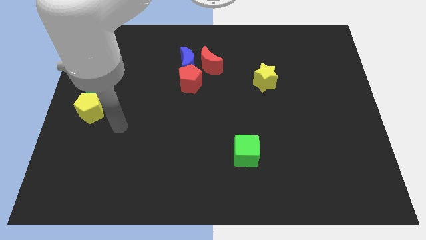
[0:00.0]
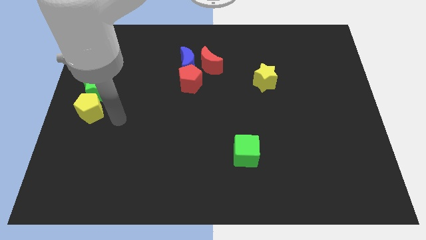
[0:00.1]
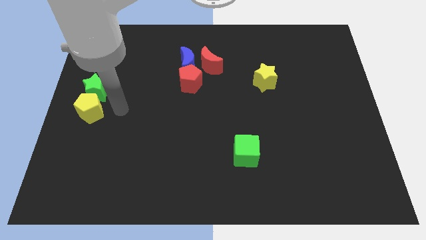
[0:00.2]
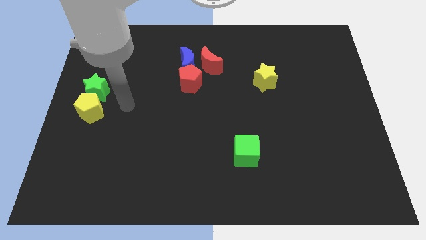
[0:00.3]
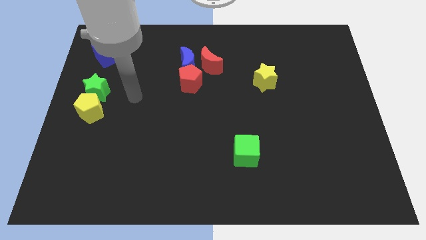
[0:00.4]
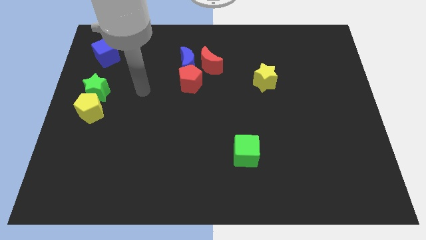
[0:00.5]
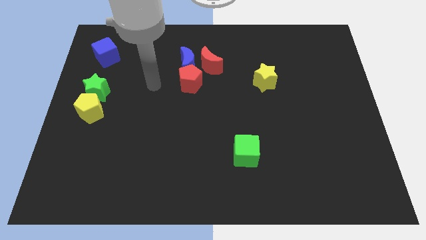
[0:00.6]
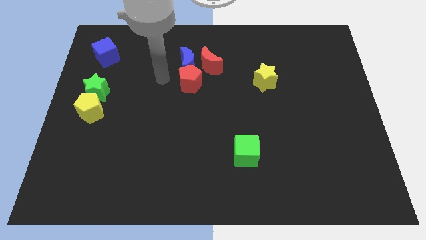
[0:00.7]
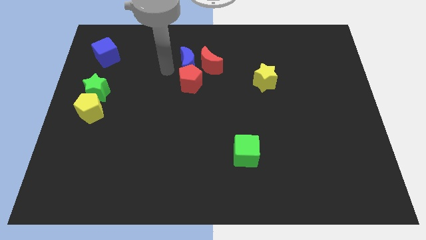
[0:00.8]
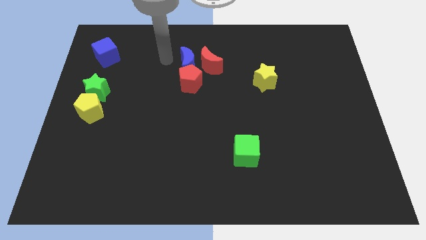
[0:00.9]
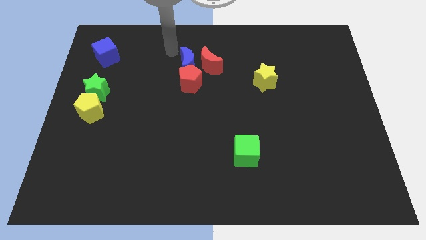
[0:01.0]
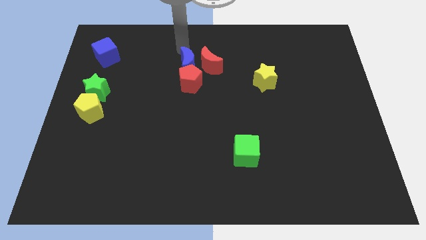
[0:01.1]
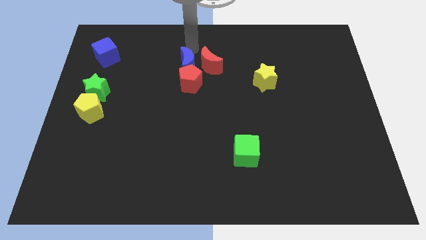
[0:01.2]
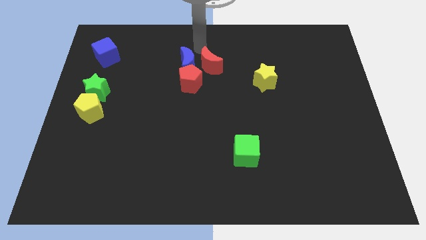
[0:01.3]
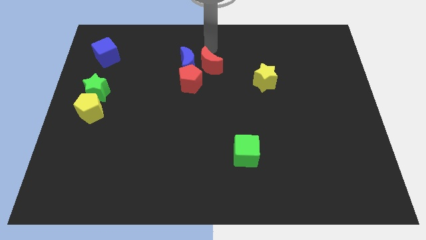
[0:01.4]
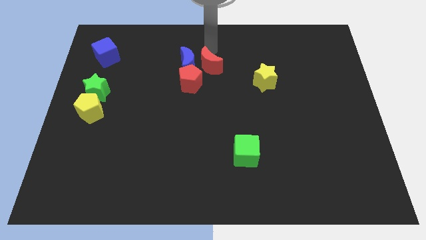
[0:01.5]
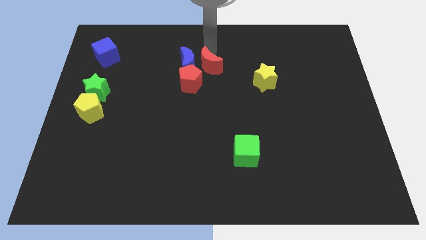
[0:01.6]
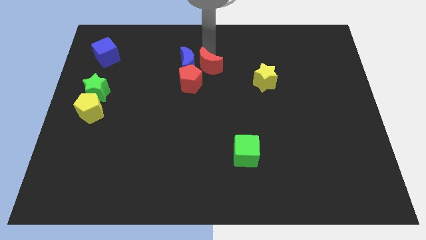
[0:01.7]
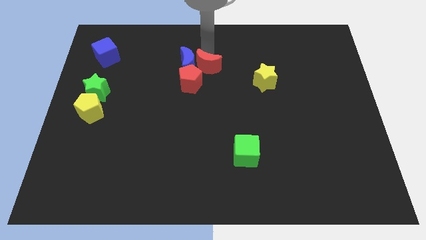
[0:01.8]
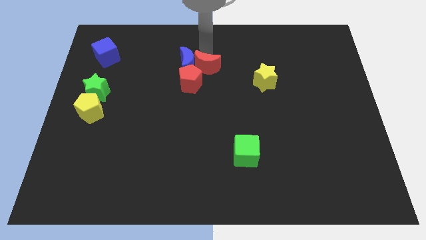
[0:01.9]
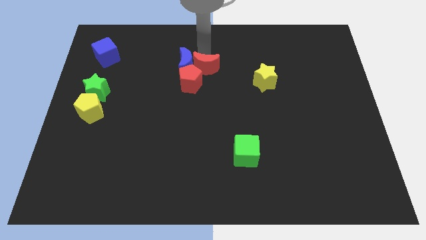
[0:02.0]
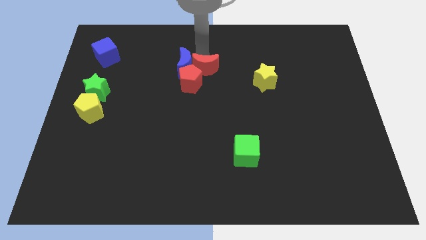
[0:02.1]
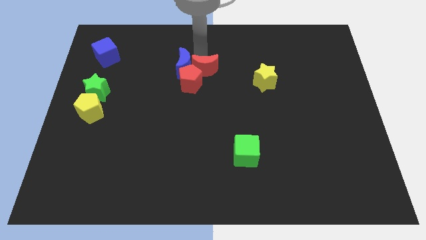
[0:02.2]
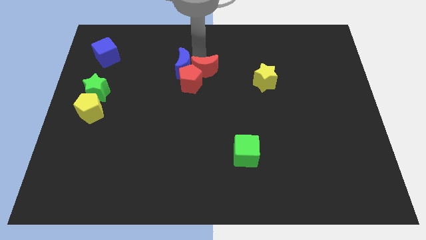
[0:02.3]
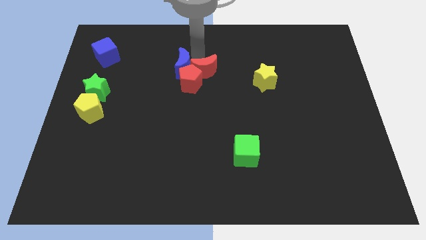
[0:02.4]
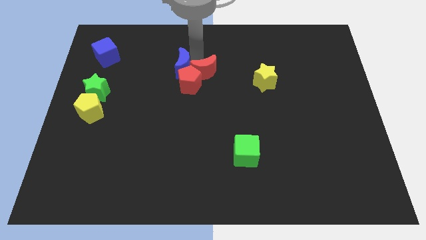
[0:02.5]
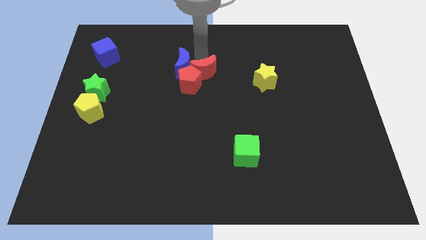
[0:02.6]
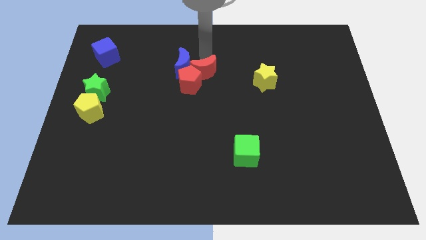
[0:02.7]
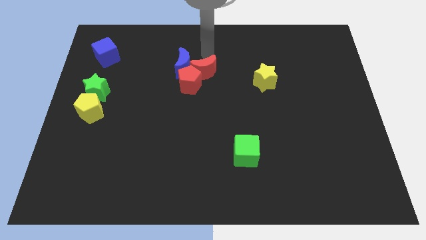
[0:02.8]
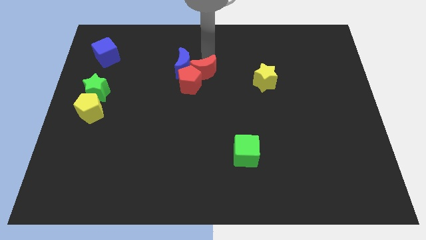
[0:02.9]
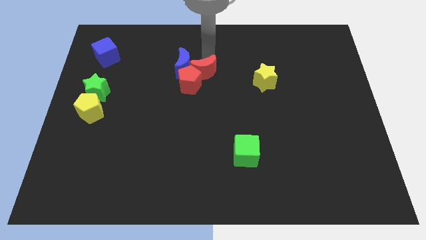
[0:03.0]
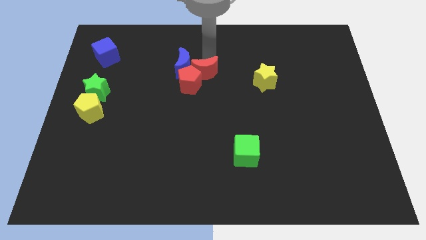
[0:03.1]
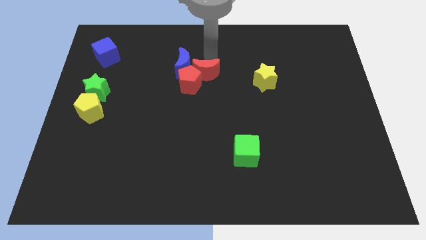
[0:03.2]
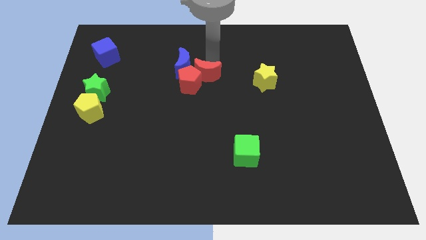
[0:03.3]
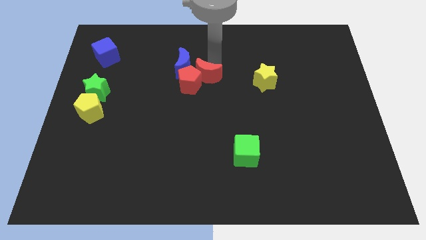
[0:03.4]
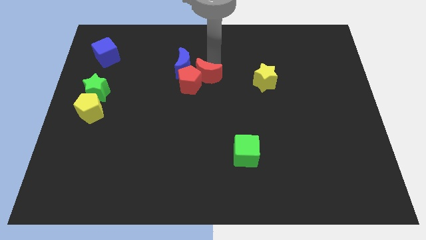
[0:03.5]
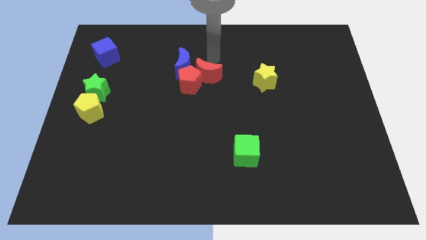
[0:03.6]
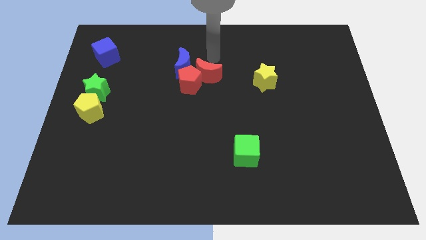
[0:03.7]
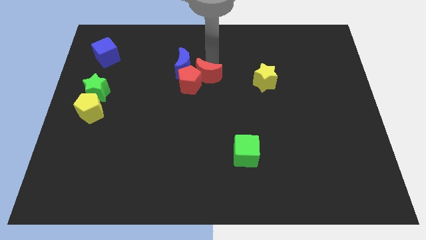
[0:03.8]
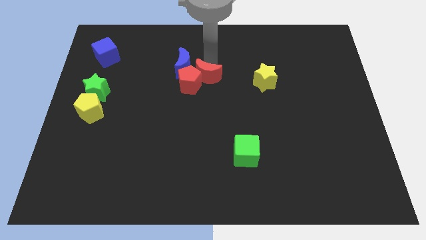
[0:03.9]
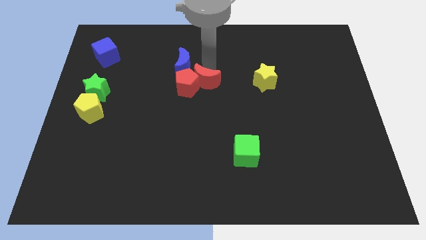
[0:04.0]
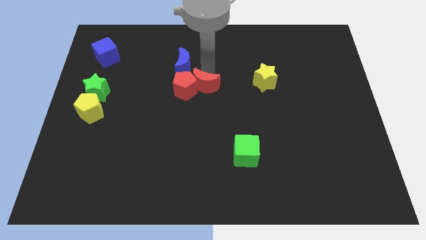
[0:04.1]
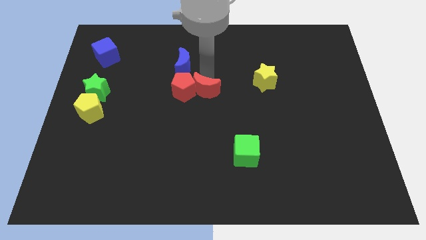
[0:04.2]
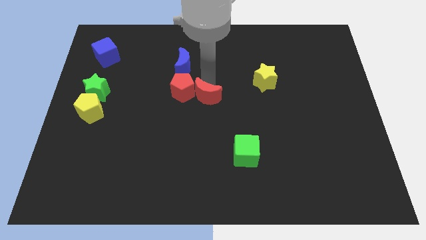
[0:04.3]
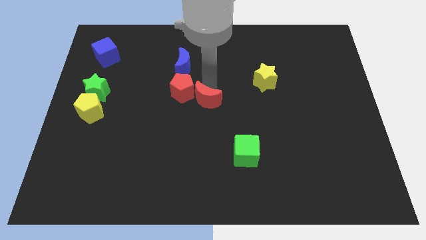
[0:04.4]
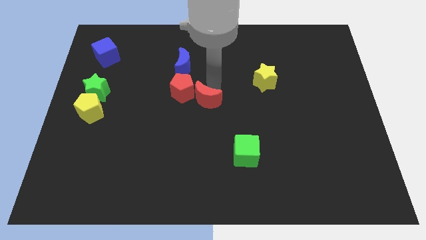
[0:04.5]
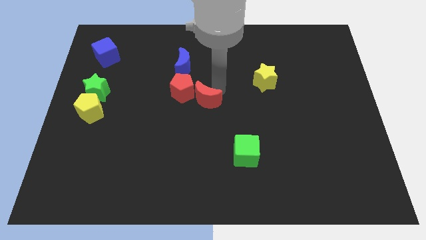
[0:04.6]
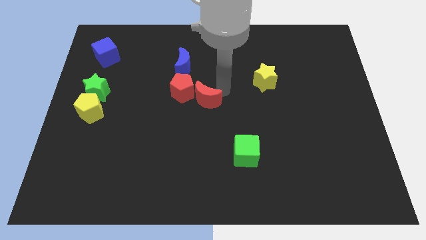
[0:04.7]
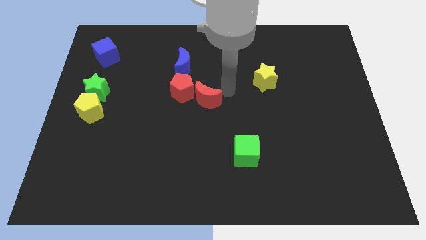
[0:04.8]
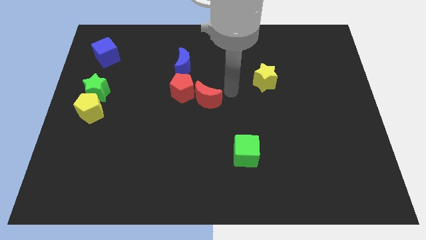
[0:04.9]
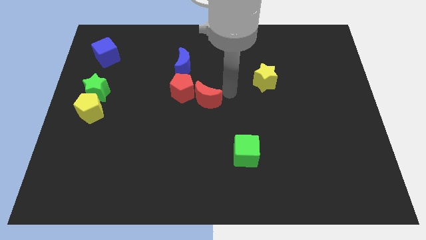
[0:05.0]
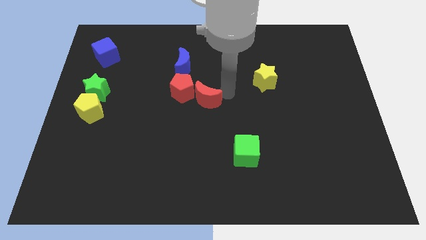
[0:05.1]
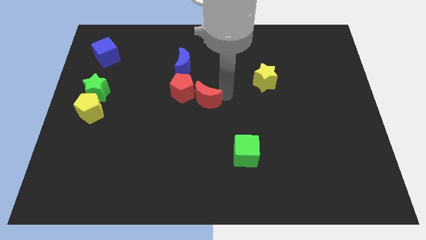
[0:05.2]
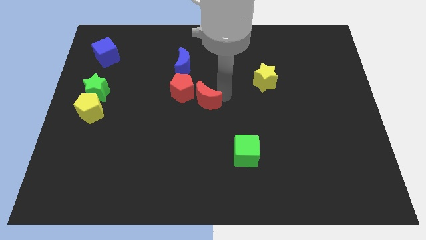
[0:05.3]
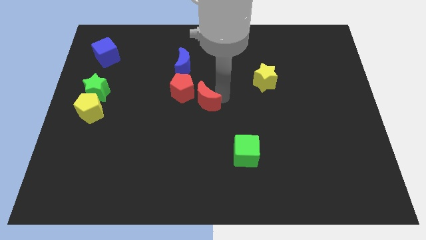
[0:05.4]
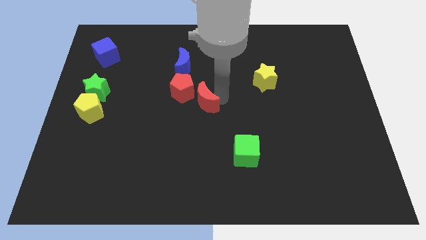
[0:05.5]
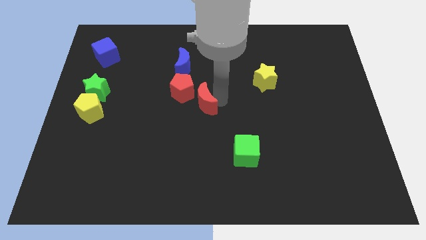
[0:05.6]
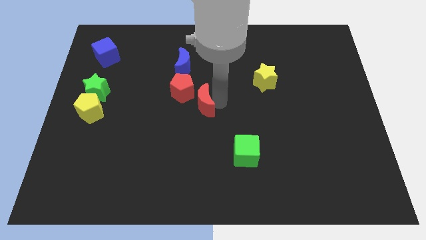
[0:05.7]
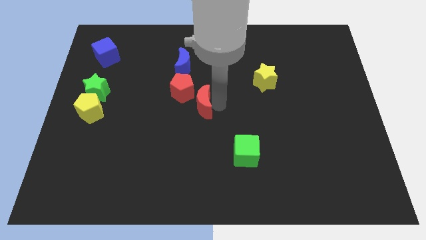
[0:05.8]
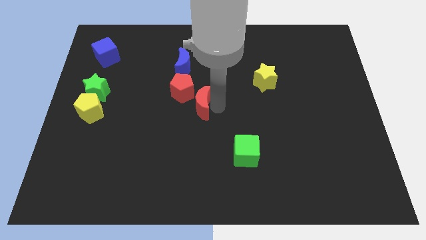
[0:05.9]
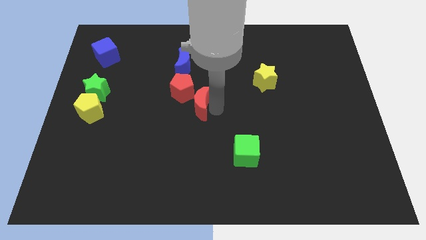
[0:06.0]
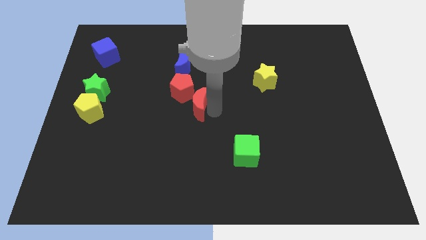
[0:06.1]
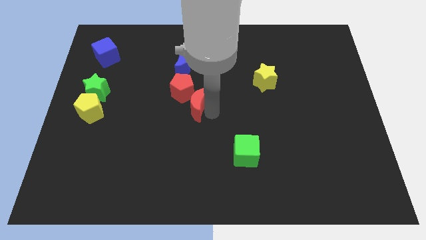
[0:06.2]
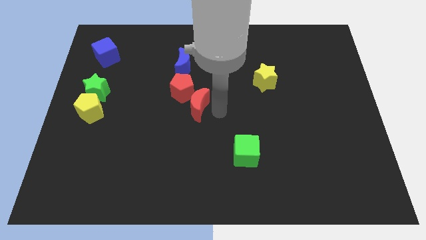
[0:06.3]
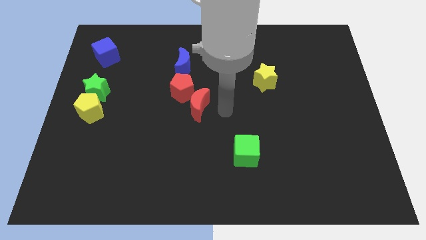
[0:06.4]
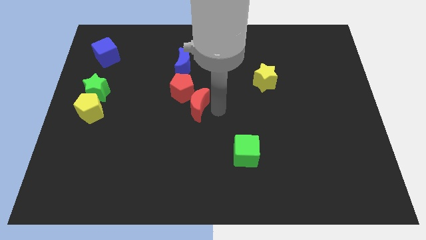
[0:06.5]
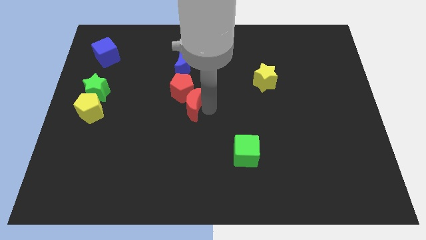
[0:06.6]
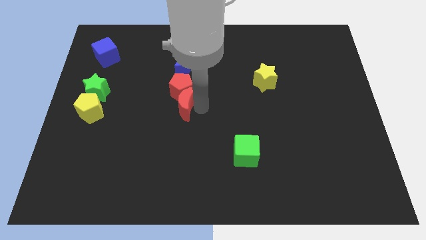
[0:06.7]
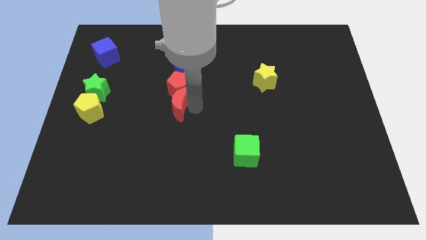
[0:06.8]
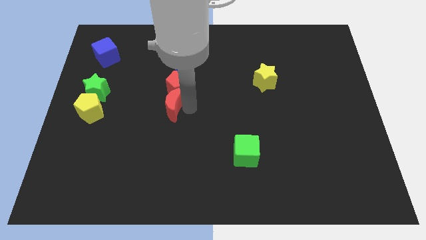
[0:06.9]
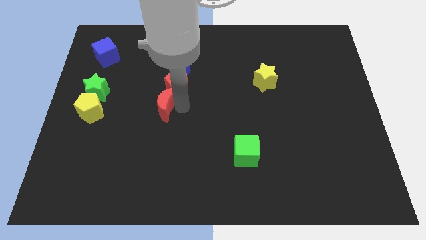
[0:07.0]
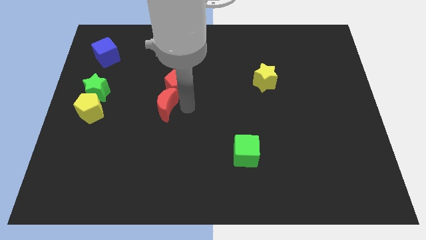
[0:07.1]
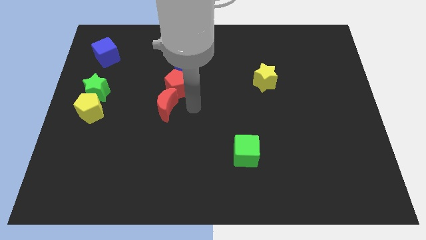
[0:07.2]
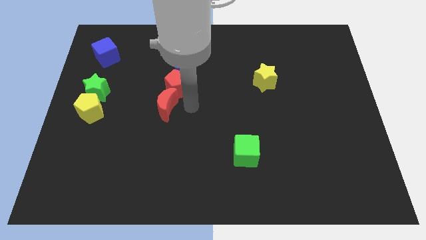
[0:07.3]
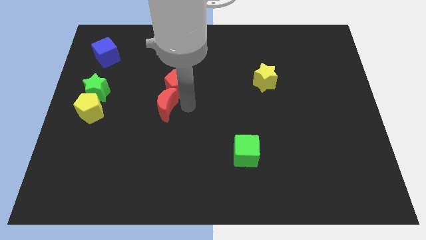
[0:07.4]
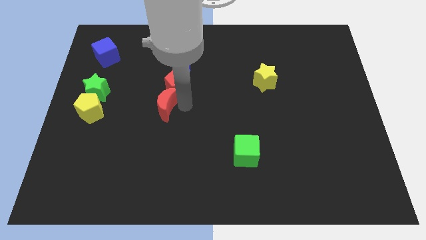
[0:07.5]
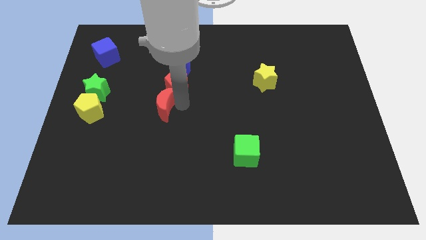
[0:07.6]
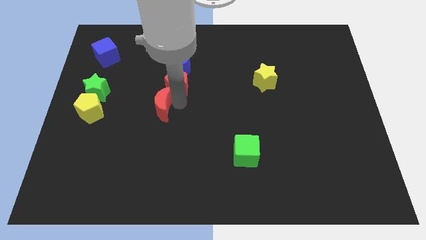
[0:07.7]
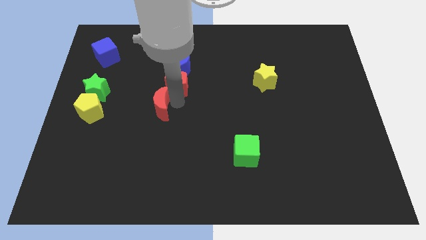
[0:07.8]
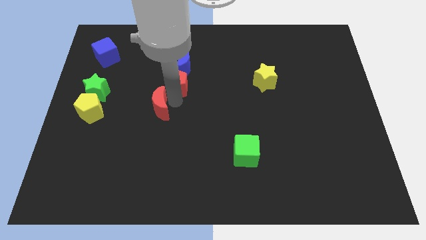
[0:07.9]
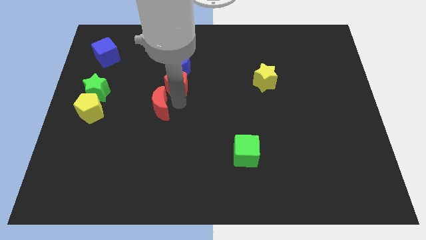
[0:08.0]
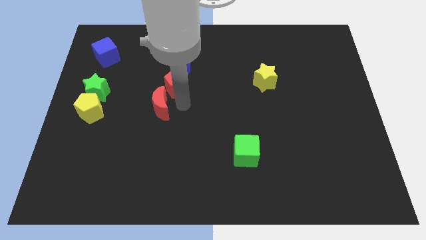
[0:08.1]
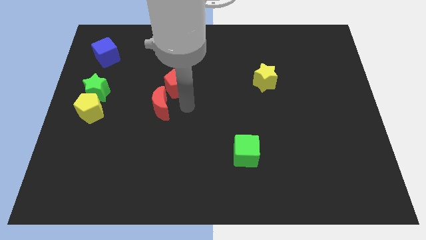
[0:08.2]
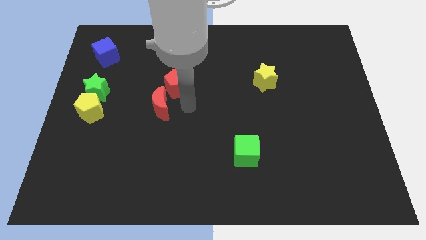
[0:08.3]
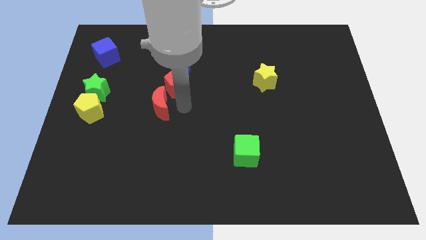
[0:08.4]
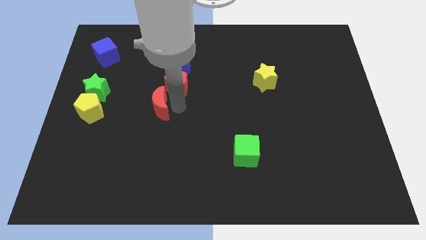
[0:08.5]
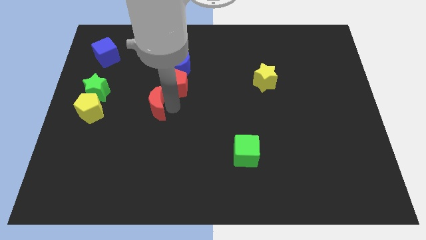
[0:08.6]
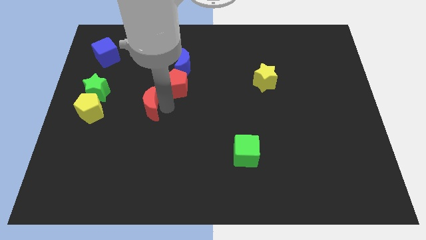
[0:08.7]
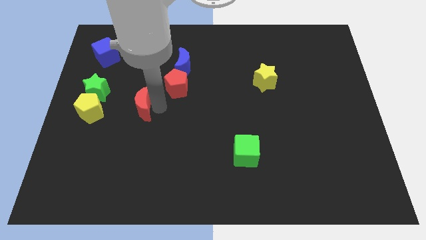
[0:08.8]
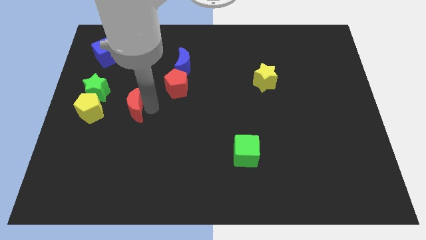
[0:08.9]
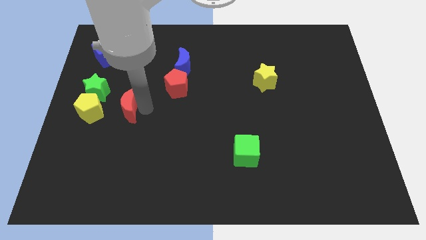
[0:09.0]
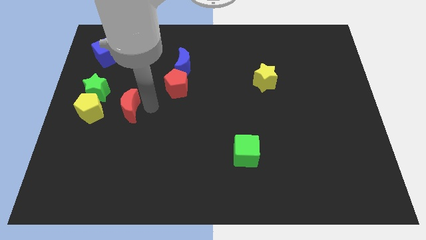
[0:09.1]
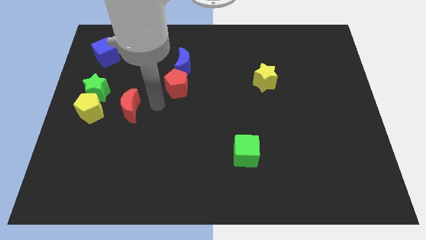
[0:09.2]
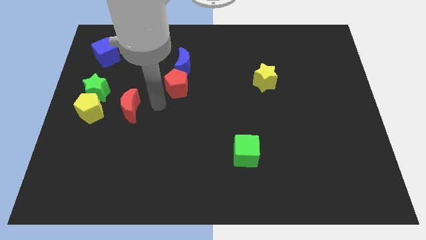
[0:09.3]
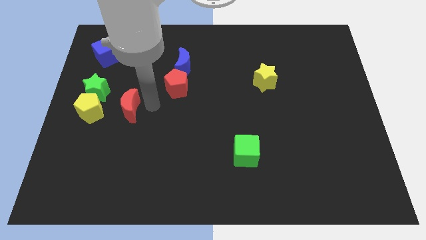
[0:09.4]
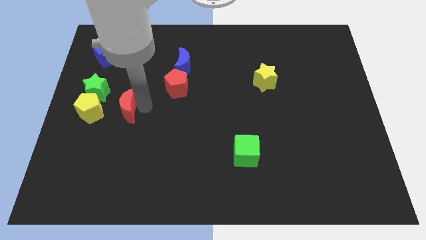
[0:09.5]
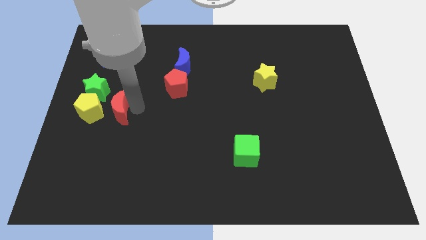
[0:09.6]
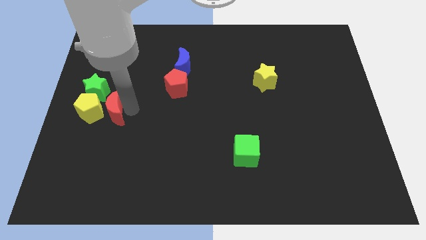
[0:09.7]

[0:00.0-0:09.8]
put the red moon to the yellow pentagon
